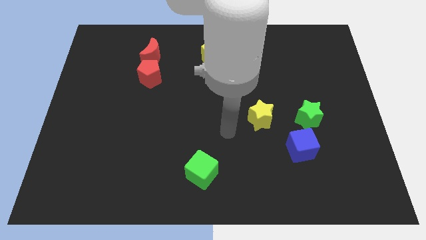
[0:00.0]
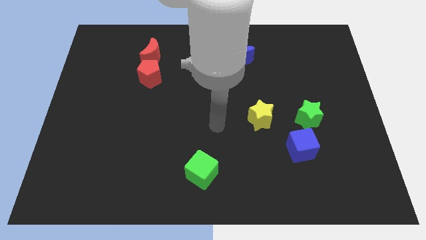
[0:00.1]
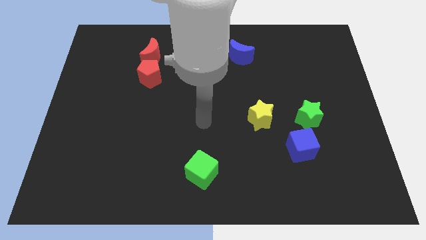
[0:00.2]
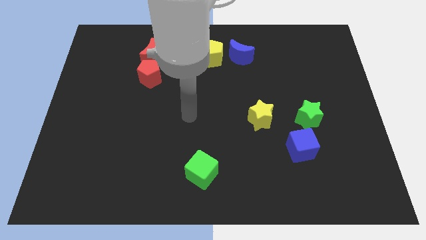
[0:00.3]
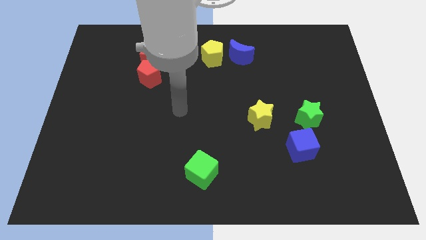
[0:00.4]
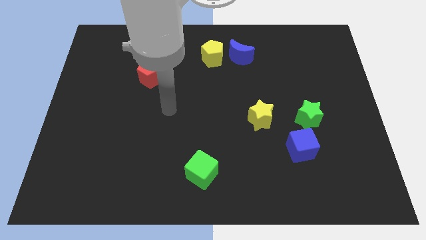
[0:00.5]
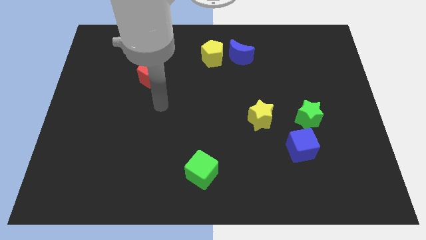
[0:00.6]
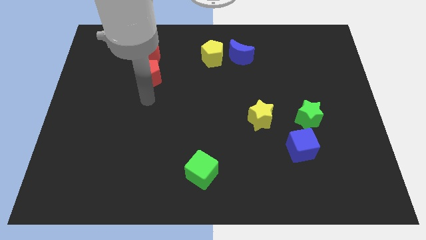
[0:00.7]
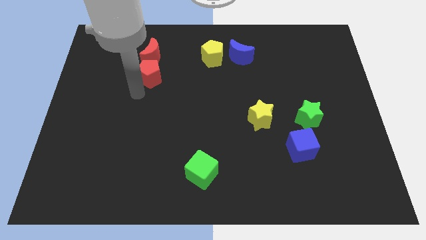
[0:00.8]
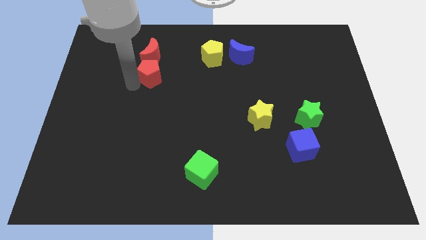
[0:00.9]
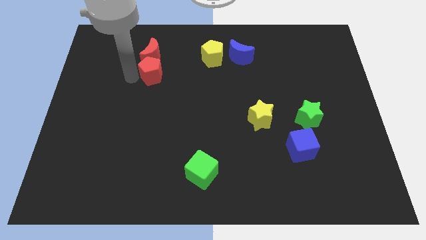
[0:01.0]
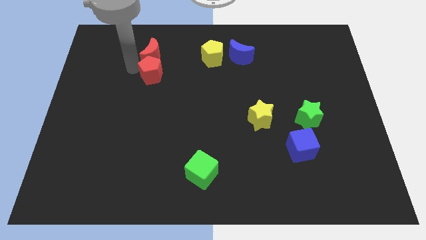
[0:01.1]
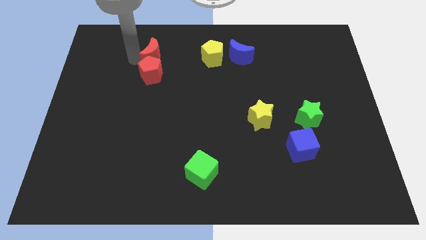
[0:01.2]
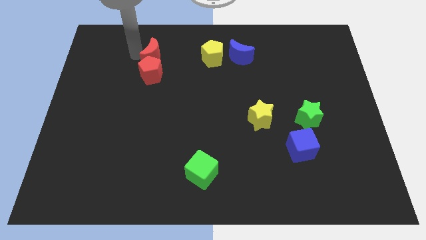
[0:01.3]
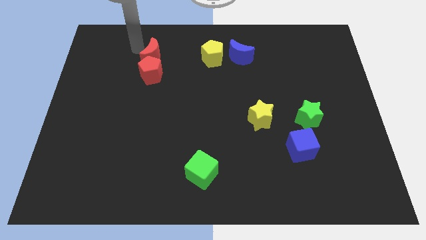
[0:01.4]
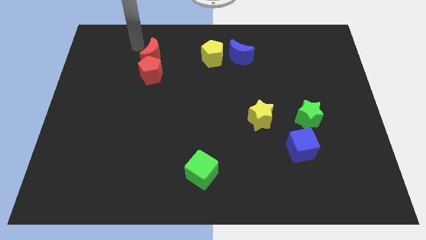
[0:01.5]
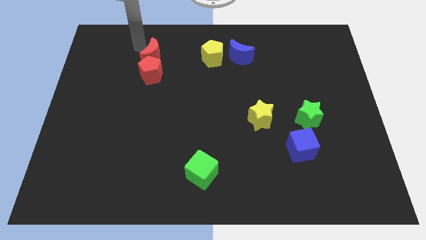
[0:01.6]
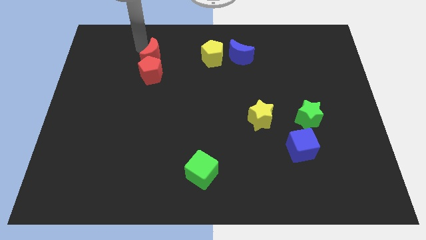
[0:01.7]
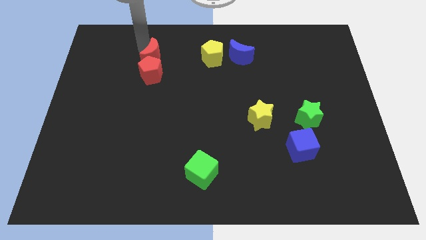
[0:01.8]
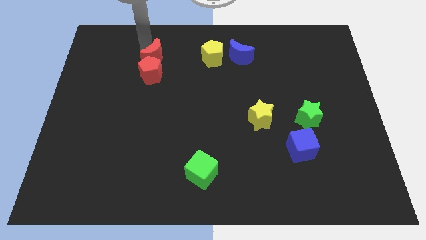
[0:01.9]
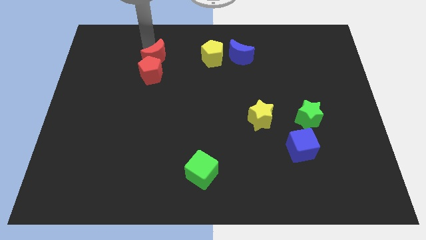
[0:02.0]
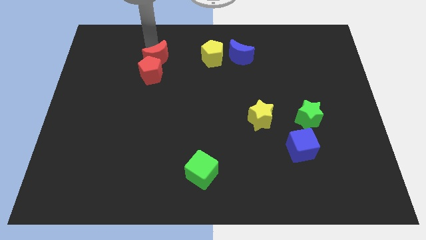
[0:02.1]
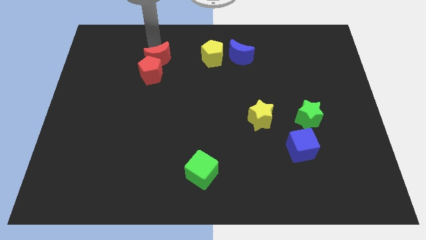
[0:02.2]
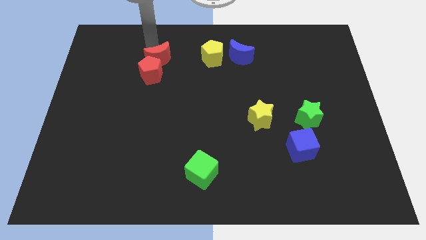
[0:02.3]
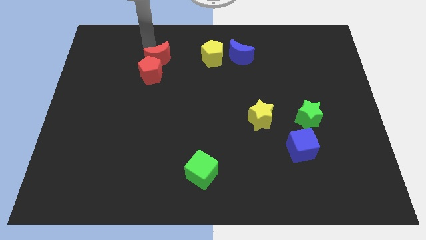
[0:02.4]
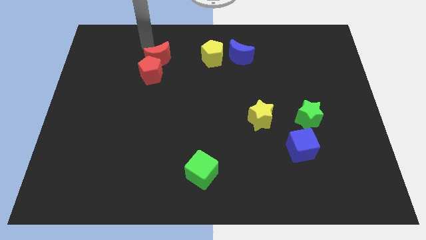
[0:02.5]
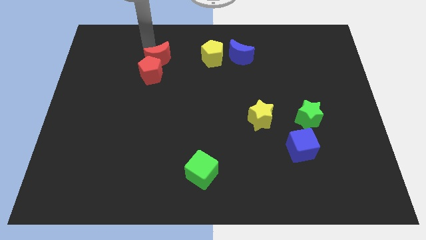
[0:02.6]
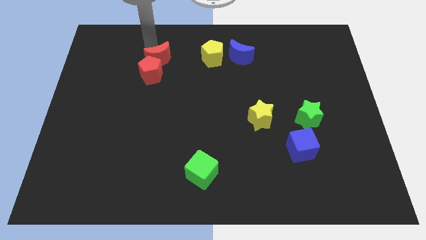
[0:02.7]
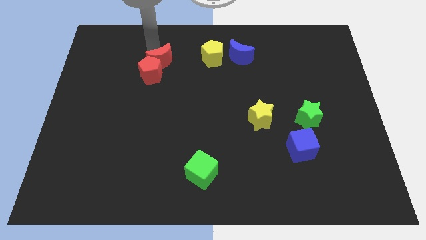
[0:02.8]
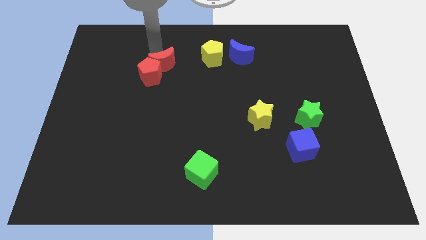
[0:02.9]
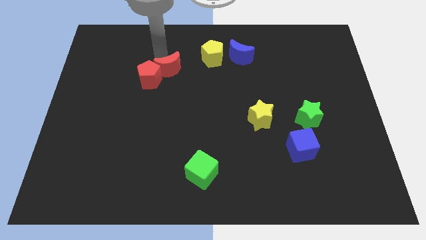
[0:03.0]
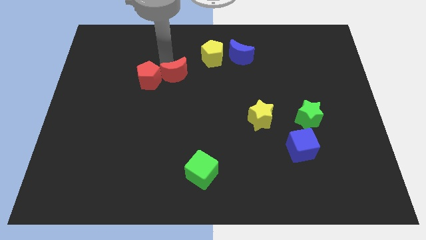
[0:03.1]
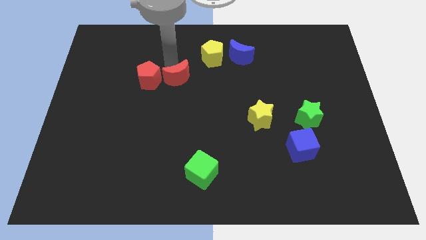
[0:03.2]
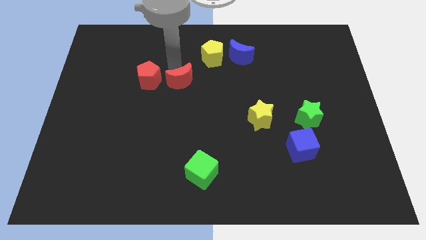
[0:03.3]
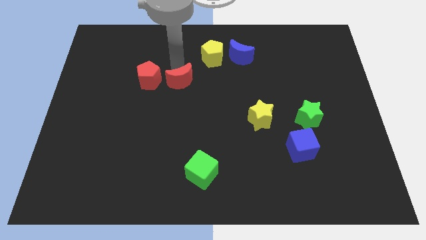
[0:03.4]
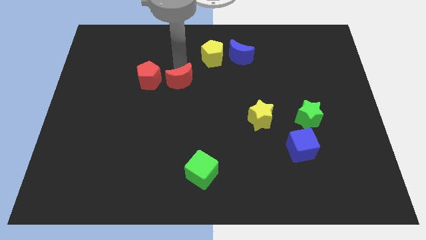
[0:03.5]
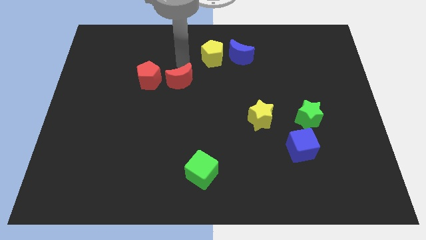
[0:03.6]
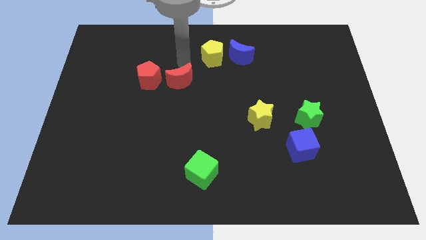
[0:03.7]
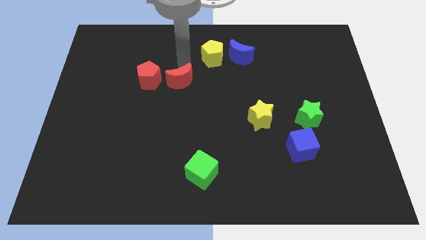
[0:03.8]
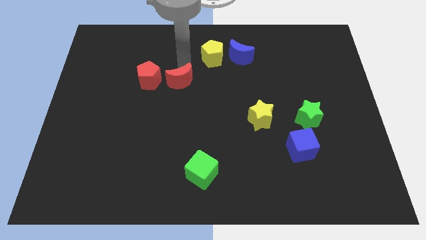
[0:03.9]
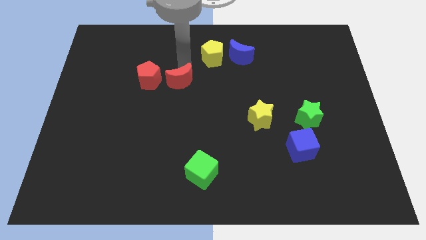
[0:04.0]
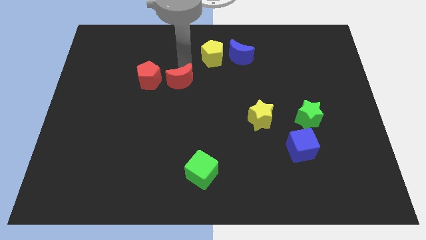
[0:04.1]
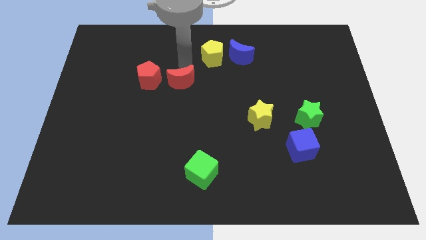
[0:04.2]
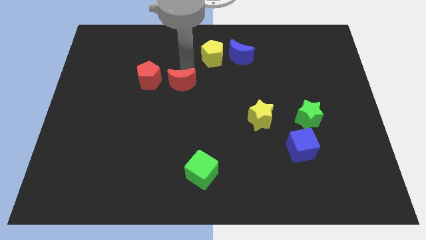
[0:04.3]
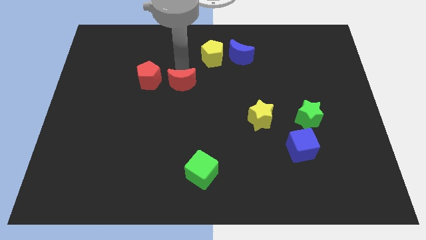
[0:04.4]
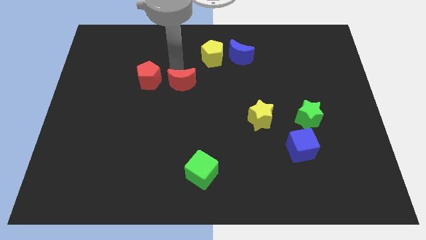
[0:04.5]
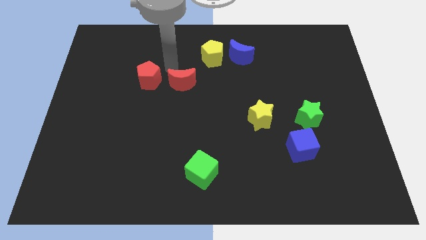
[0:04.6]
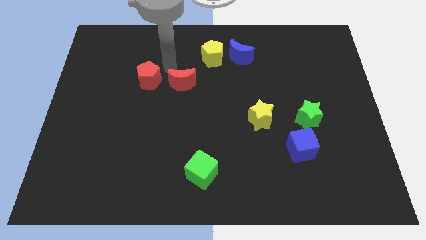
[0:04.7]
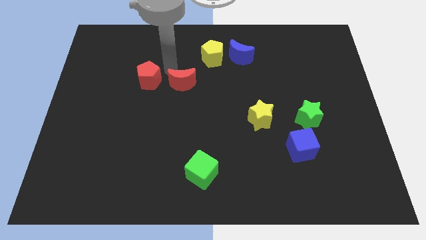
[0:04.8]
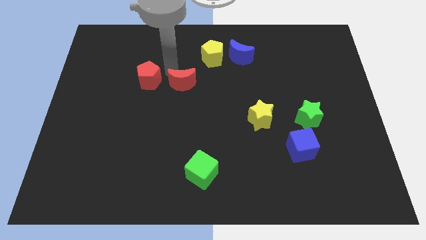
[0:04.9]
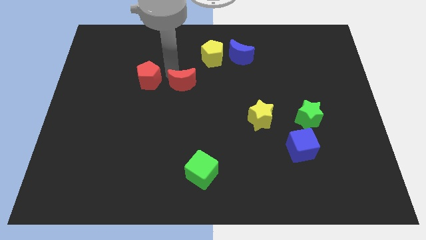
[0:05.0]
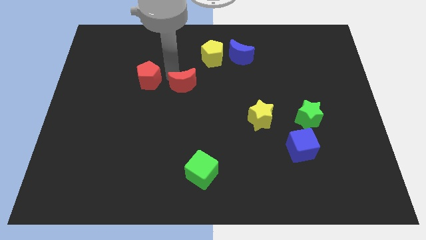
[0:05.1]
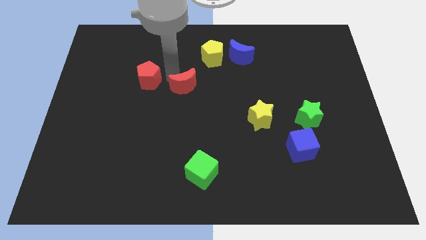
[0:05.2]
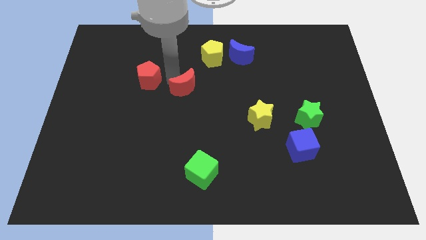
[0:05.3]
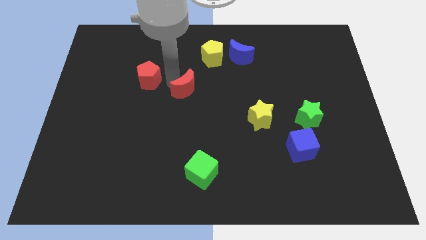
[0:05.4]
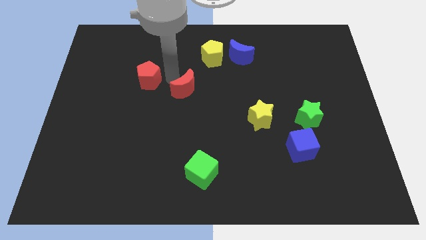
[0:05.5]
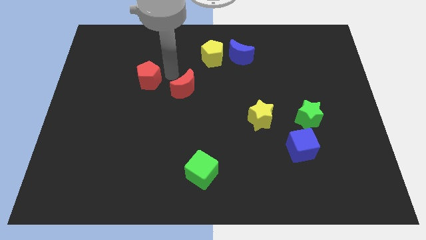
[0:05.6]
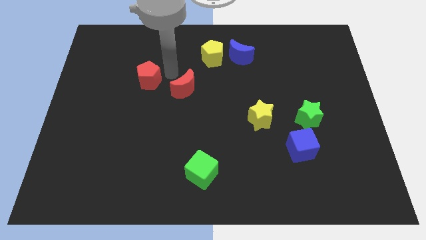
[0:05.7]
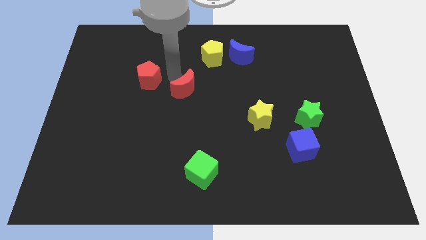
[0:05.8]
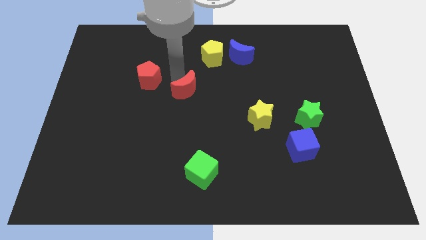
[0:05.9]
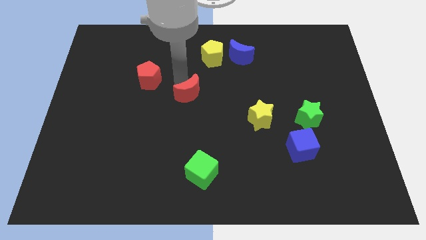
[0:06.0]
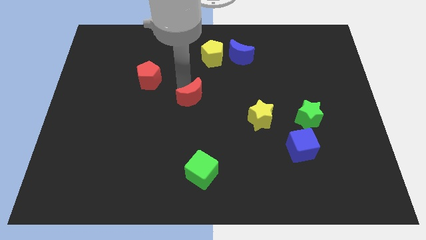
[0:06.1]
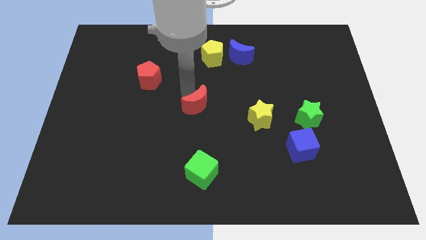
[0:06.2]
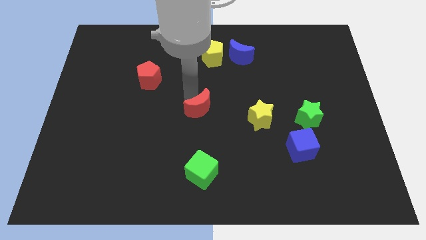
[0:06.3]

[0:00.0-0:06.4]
slide the red moon left of the yellow star

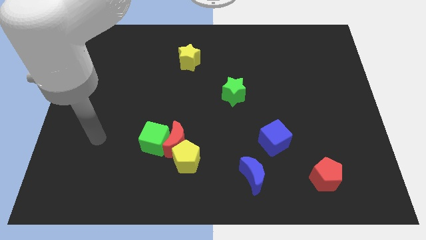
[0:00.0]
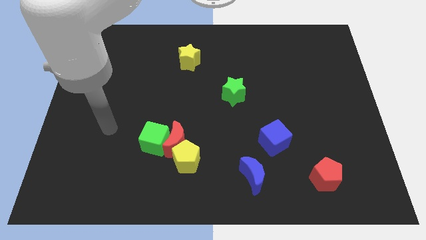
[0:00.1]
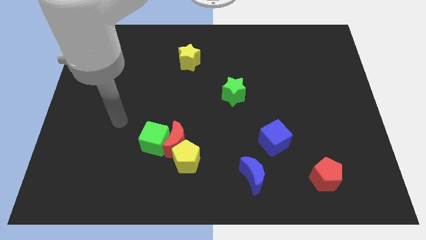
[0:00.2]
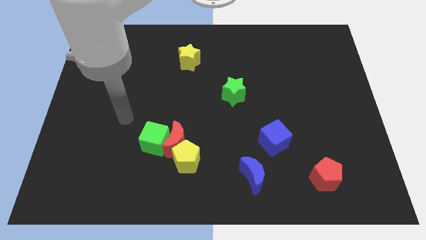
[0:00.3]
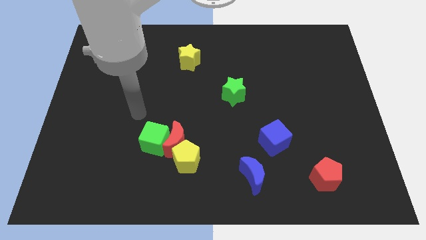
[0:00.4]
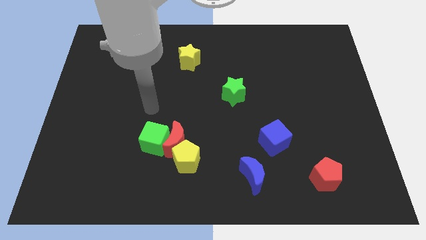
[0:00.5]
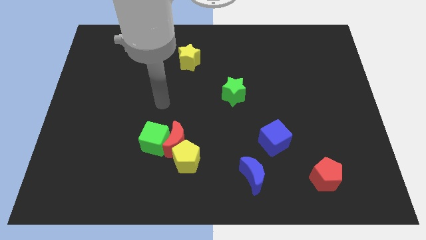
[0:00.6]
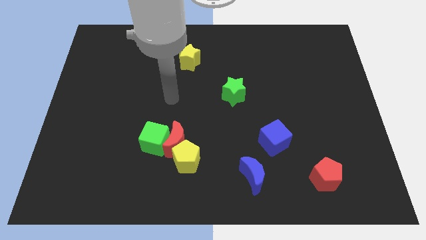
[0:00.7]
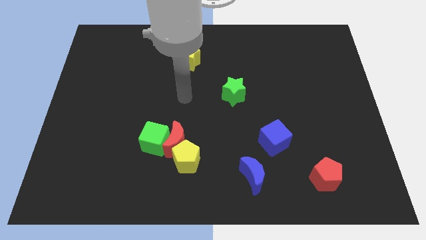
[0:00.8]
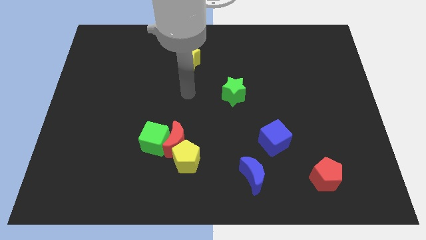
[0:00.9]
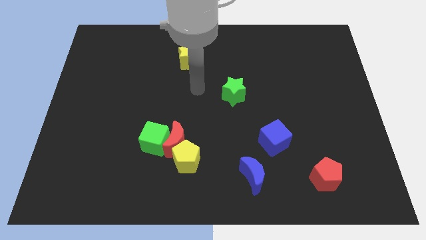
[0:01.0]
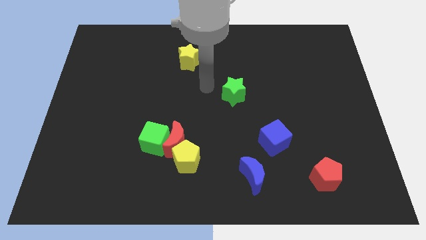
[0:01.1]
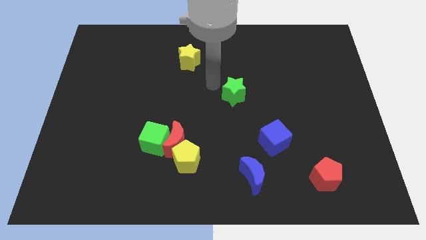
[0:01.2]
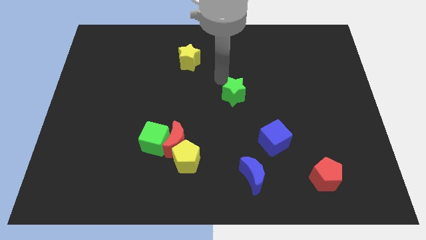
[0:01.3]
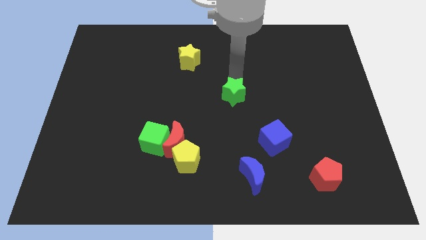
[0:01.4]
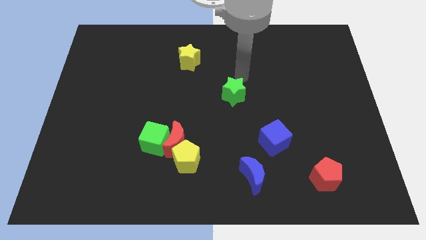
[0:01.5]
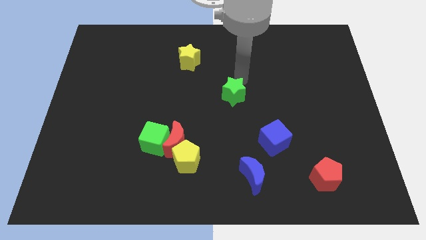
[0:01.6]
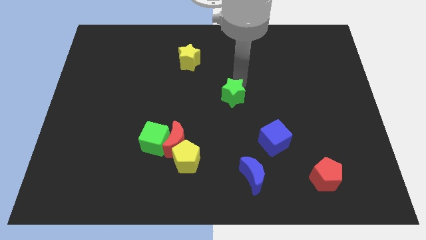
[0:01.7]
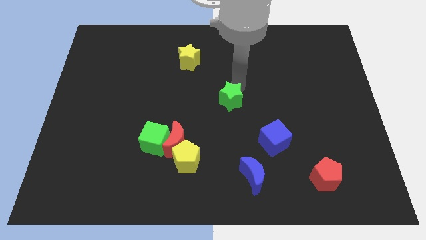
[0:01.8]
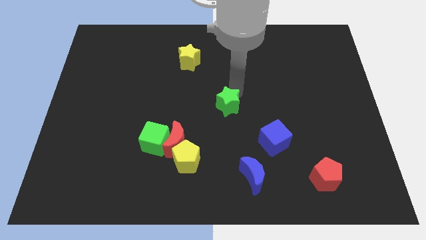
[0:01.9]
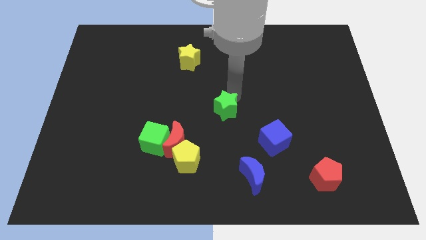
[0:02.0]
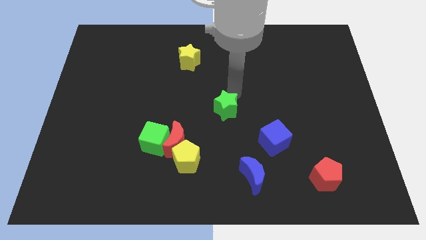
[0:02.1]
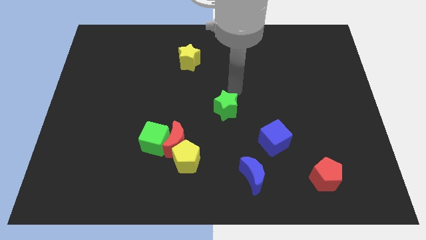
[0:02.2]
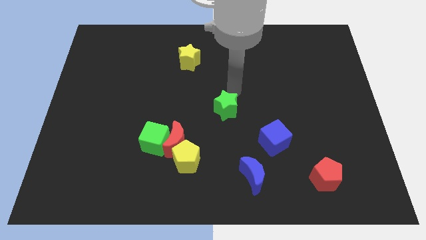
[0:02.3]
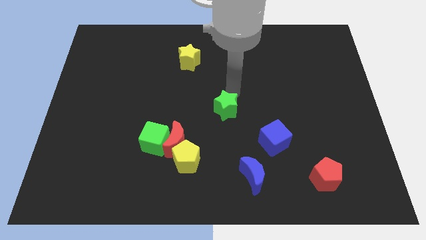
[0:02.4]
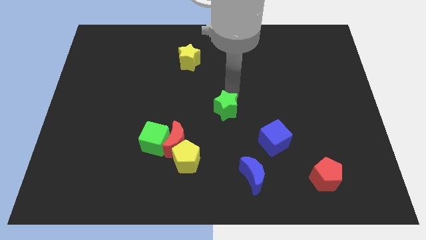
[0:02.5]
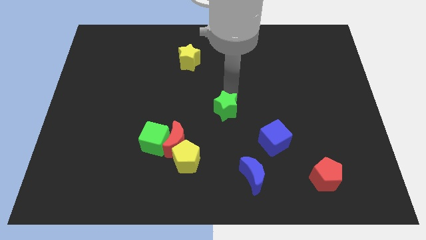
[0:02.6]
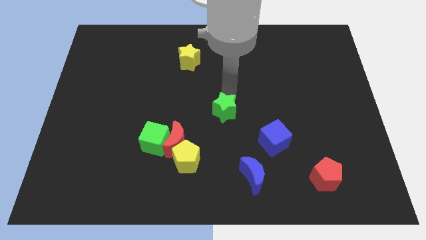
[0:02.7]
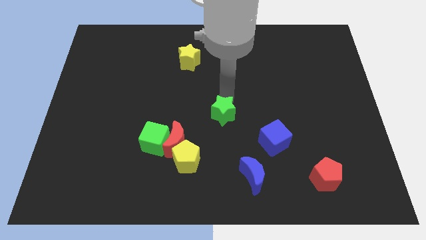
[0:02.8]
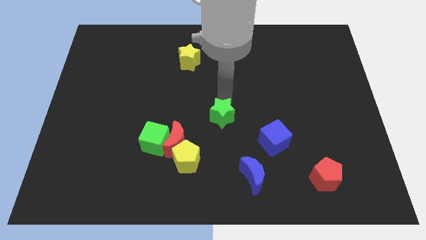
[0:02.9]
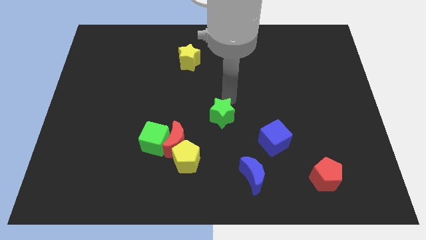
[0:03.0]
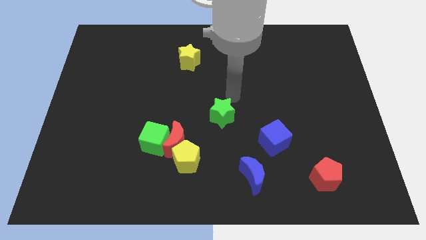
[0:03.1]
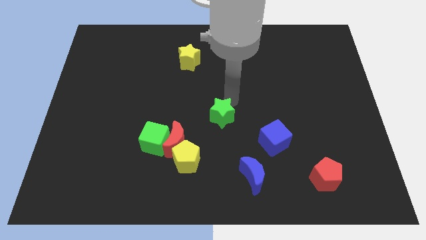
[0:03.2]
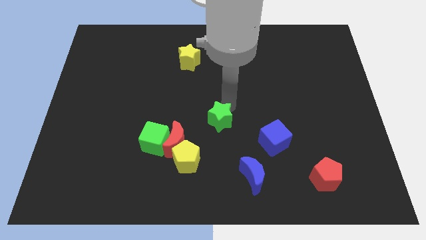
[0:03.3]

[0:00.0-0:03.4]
slide the green star to the top right side of the yellow pentagon
